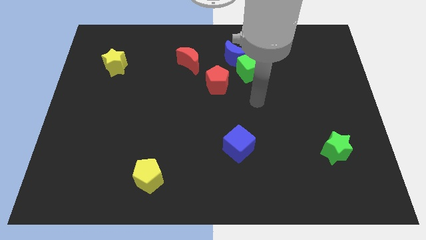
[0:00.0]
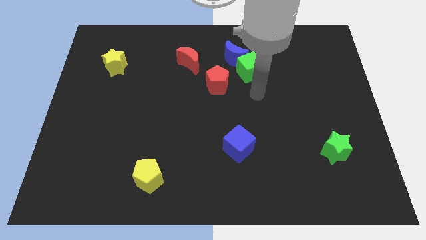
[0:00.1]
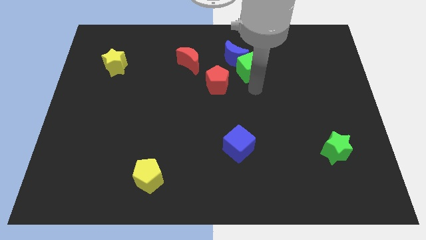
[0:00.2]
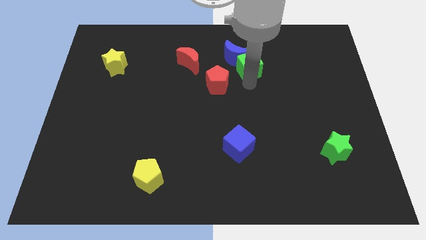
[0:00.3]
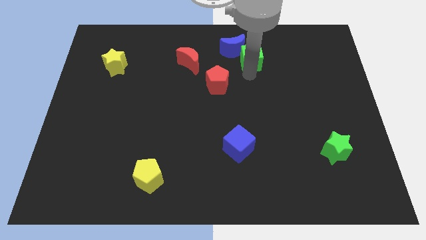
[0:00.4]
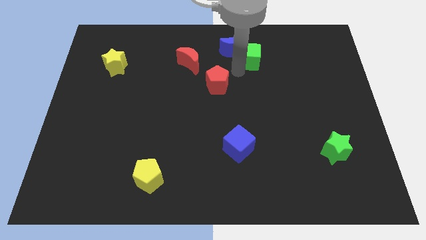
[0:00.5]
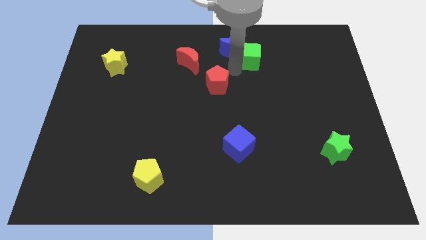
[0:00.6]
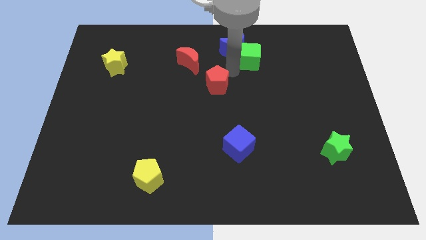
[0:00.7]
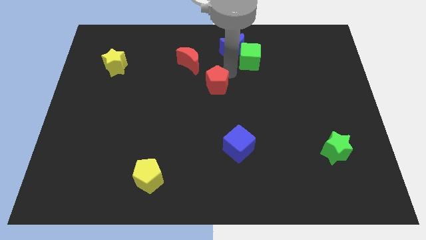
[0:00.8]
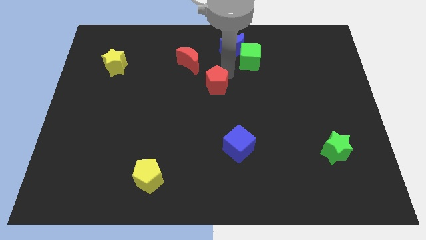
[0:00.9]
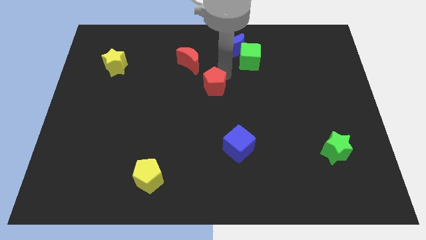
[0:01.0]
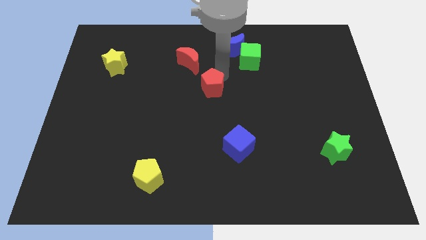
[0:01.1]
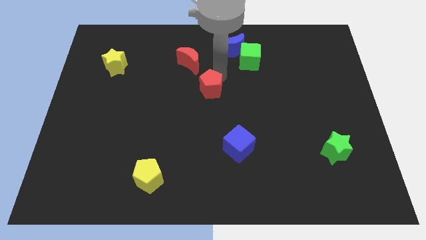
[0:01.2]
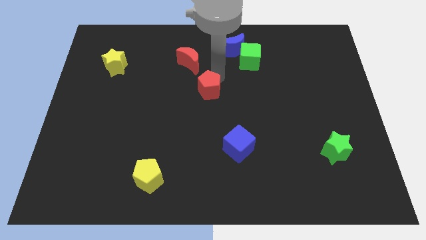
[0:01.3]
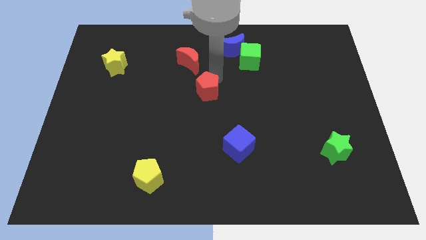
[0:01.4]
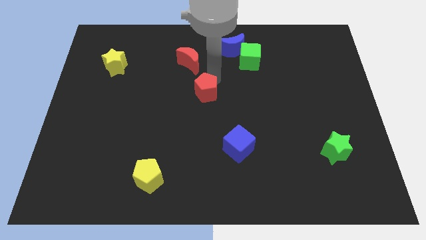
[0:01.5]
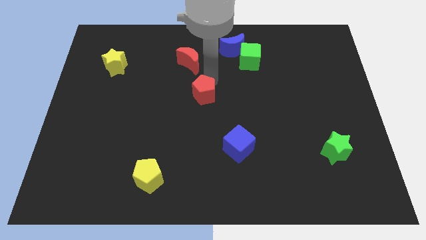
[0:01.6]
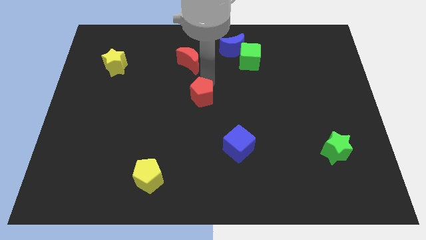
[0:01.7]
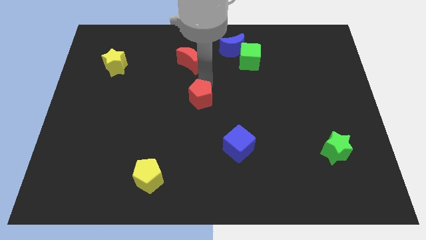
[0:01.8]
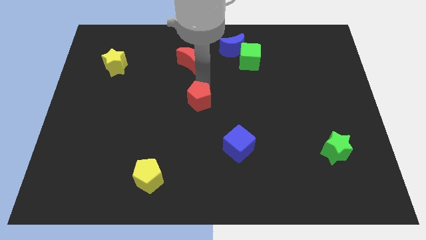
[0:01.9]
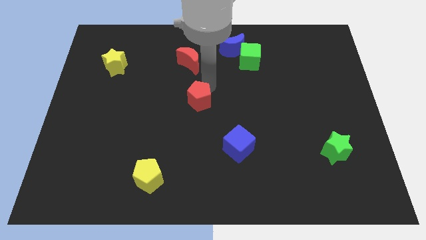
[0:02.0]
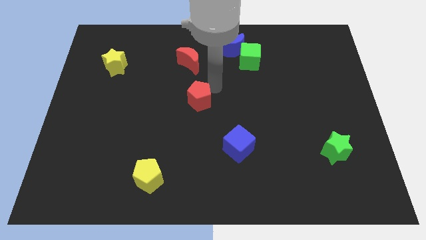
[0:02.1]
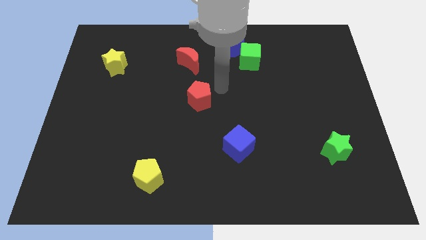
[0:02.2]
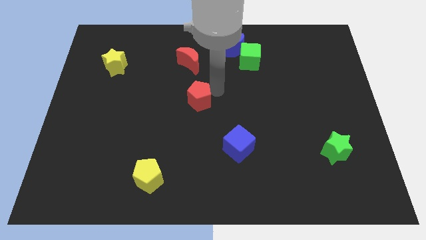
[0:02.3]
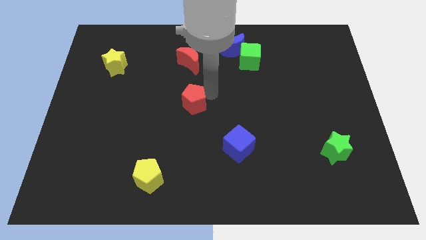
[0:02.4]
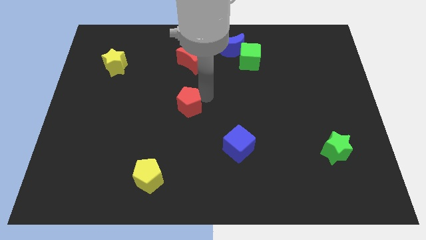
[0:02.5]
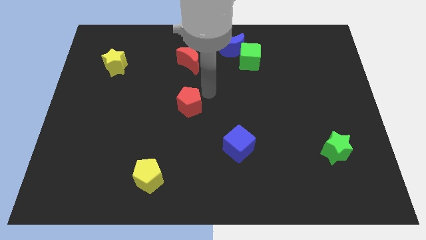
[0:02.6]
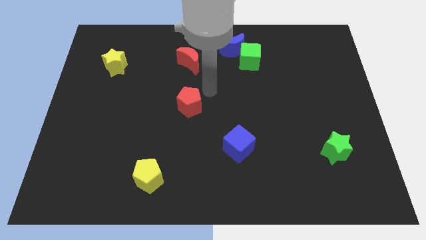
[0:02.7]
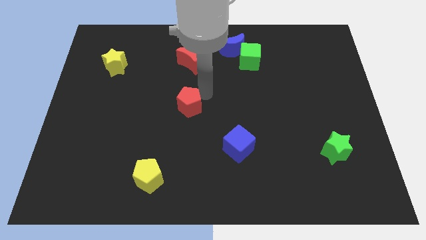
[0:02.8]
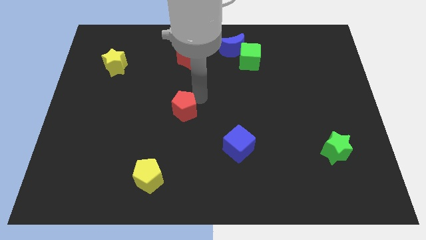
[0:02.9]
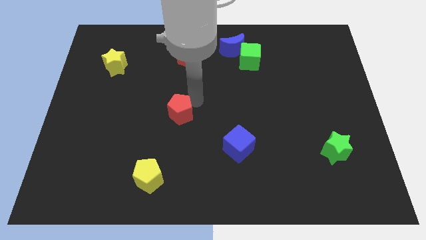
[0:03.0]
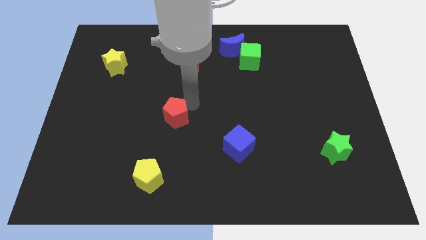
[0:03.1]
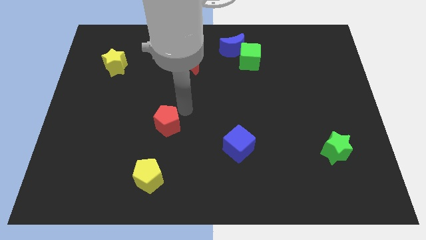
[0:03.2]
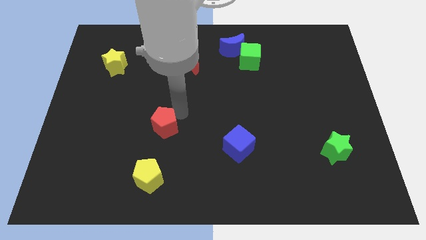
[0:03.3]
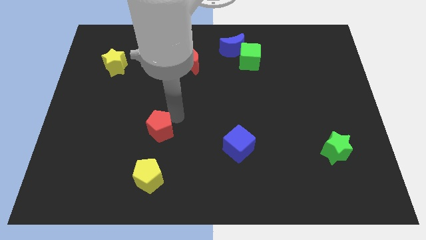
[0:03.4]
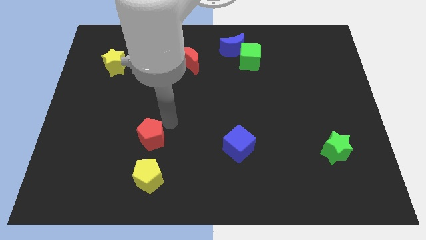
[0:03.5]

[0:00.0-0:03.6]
slide the red pentagon down and left diagonally

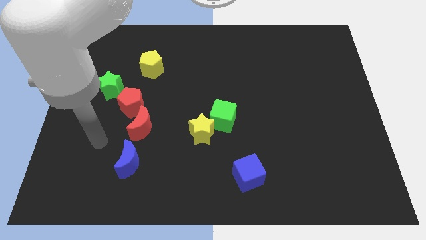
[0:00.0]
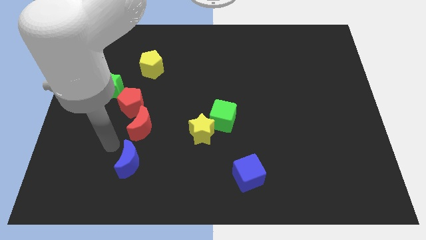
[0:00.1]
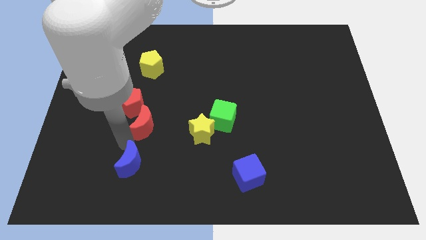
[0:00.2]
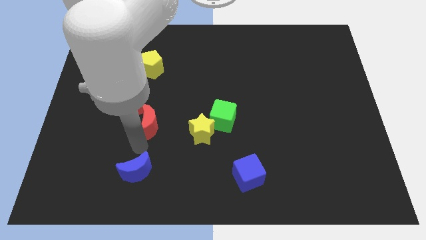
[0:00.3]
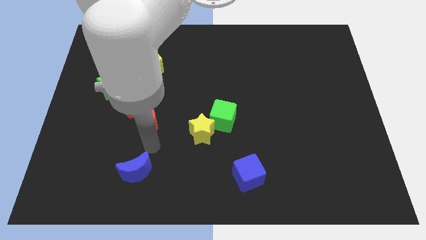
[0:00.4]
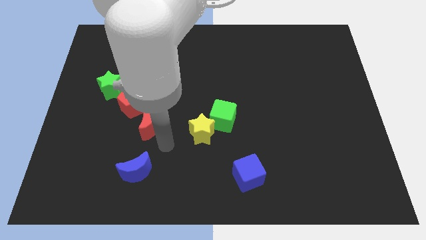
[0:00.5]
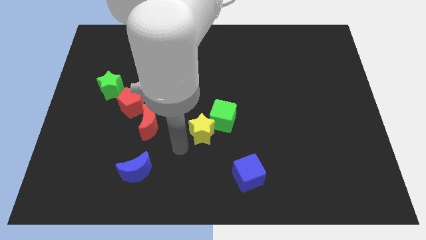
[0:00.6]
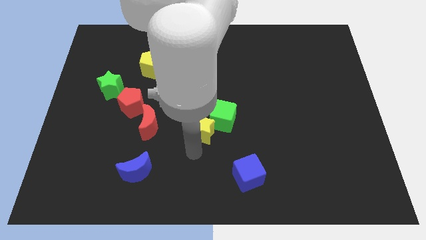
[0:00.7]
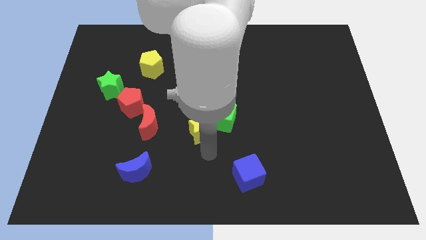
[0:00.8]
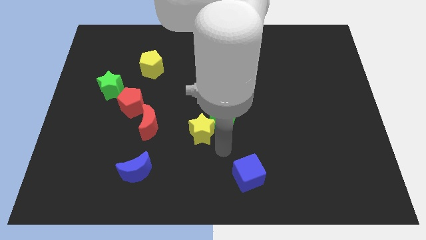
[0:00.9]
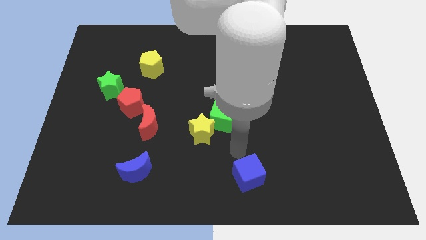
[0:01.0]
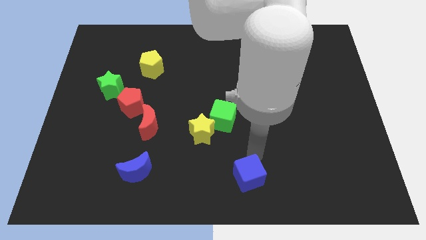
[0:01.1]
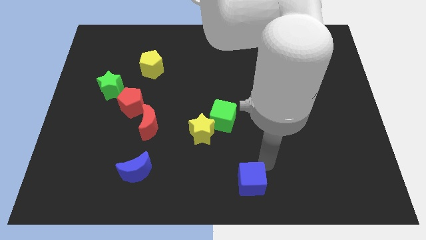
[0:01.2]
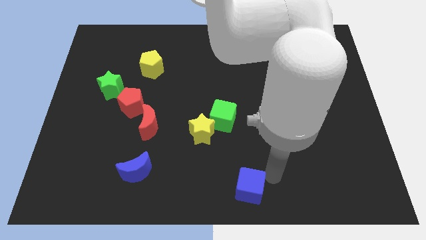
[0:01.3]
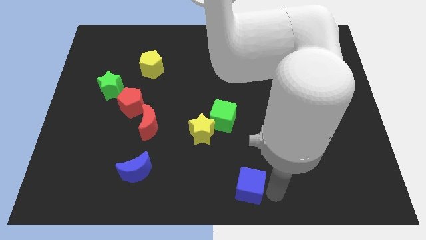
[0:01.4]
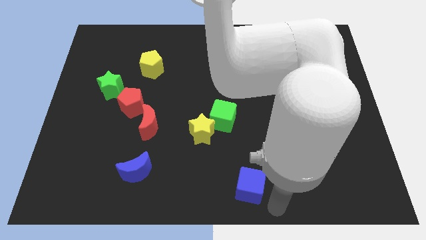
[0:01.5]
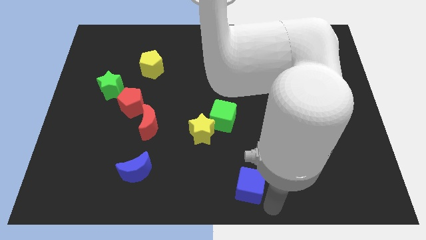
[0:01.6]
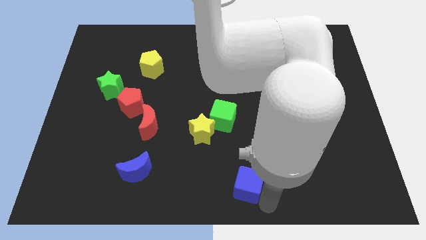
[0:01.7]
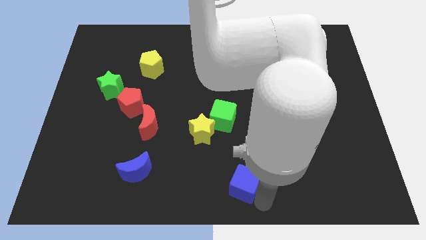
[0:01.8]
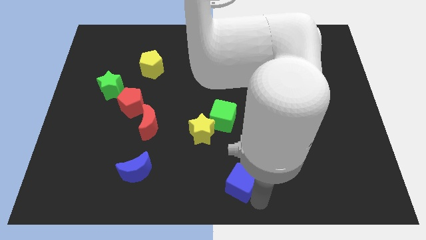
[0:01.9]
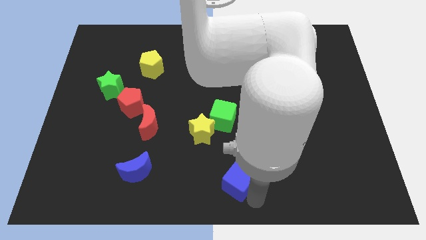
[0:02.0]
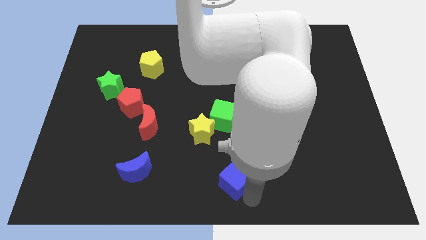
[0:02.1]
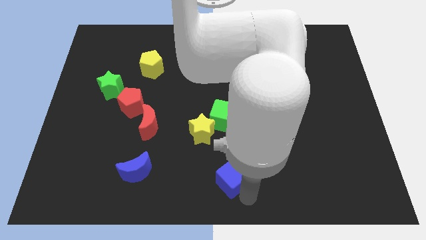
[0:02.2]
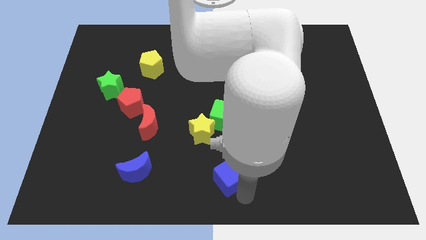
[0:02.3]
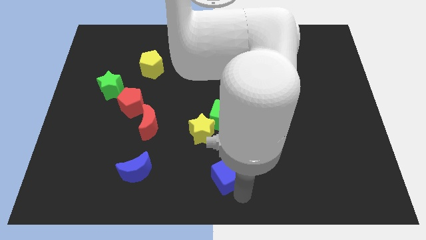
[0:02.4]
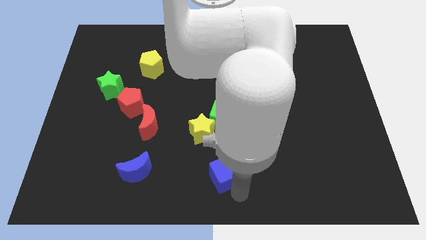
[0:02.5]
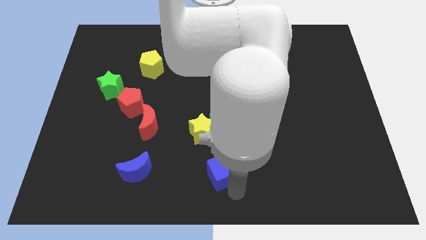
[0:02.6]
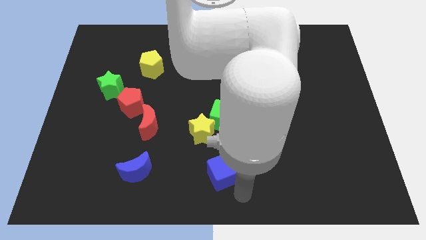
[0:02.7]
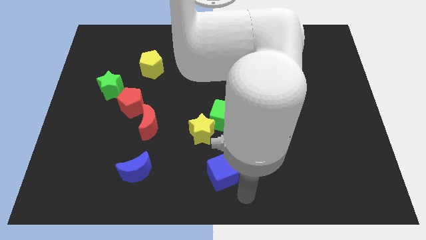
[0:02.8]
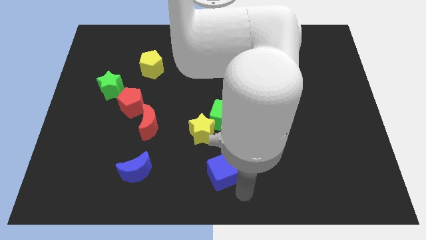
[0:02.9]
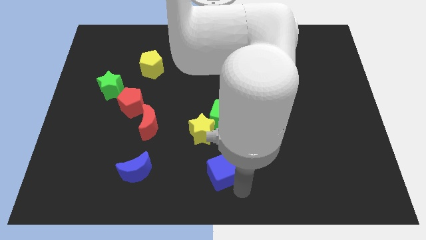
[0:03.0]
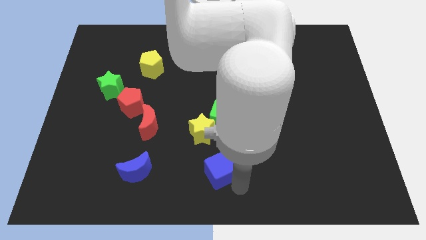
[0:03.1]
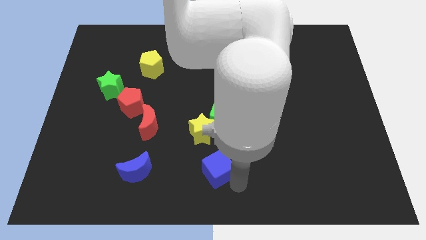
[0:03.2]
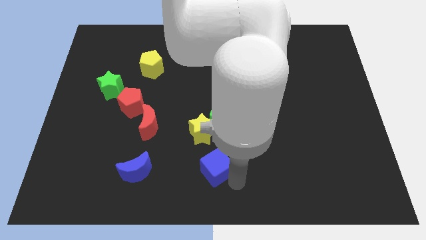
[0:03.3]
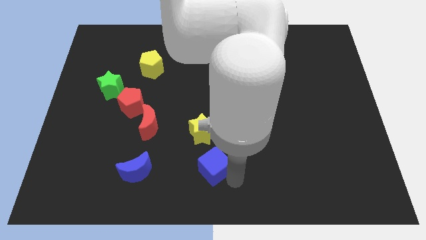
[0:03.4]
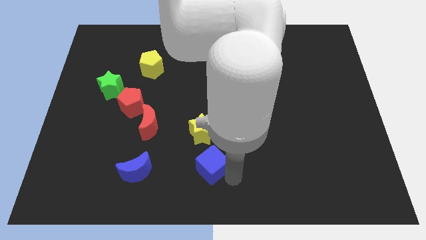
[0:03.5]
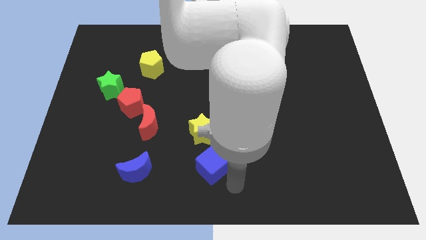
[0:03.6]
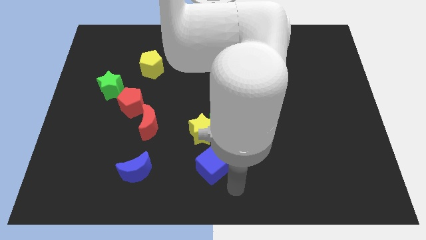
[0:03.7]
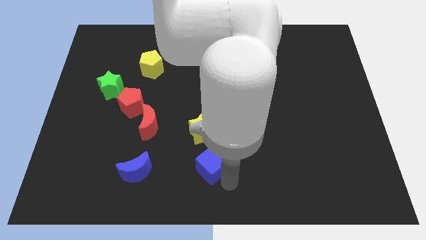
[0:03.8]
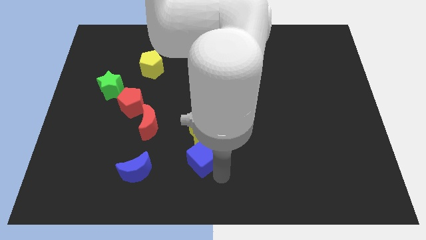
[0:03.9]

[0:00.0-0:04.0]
slightly push the blue cube up and left diagonally

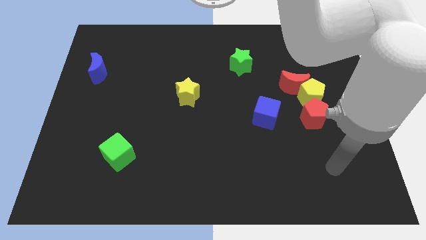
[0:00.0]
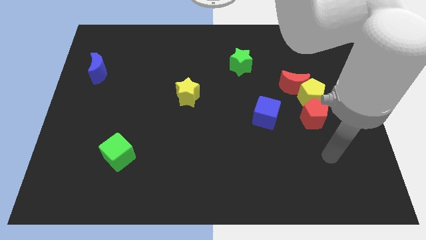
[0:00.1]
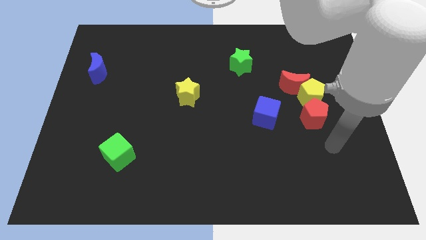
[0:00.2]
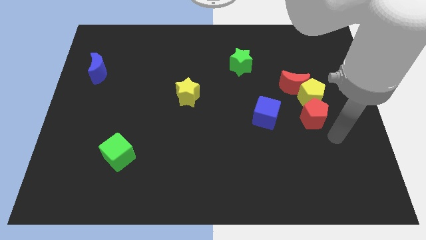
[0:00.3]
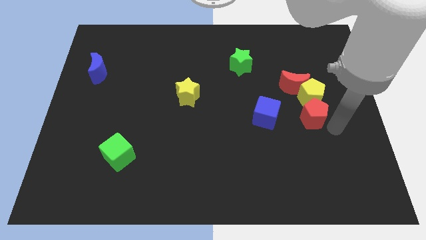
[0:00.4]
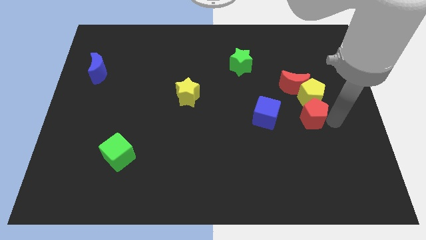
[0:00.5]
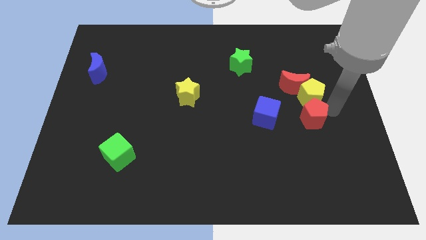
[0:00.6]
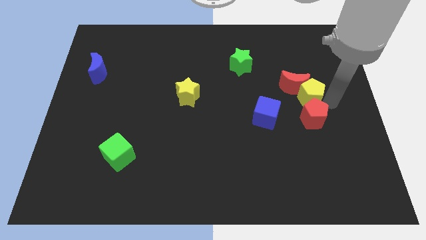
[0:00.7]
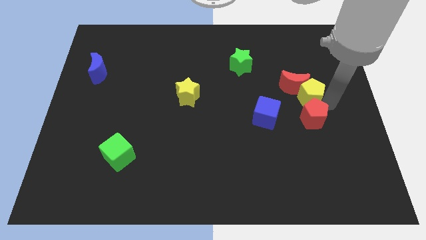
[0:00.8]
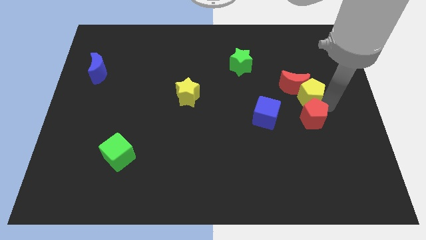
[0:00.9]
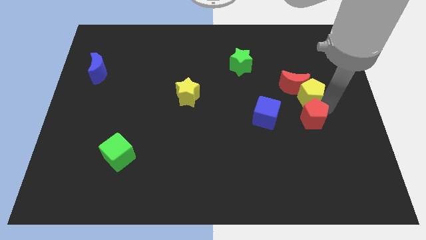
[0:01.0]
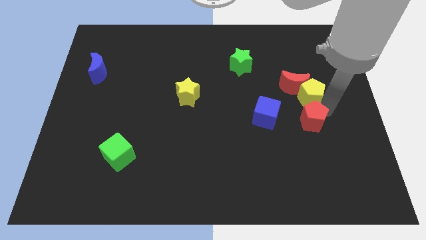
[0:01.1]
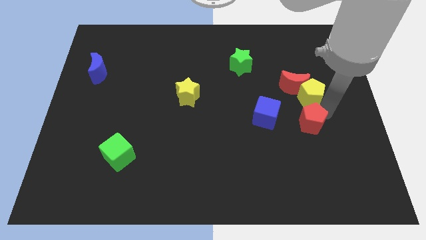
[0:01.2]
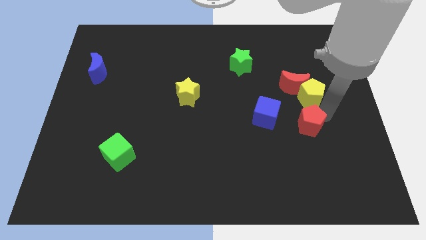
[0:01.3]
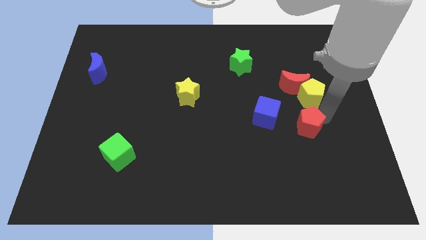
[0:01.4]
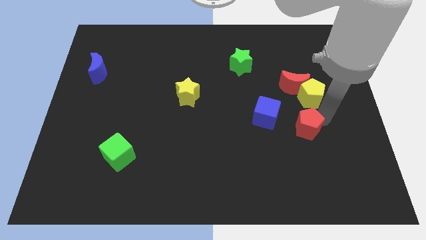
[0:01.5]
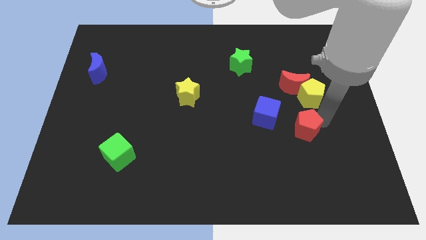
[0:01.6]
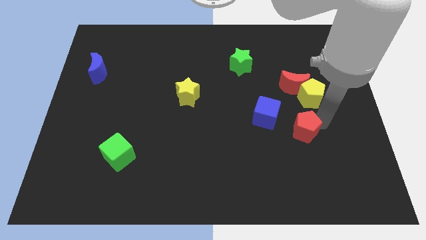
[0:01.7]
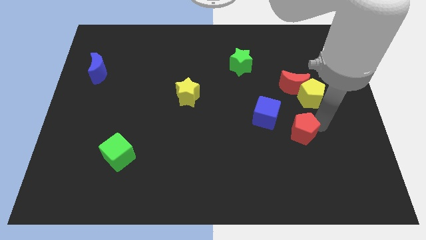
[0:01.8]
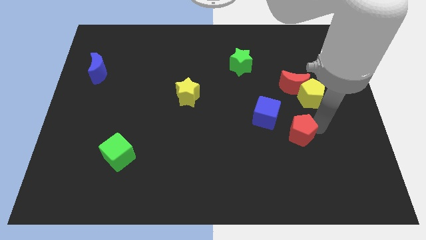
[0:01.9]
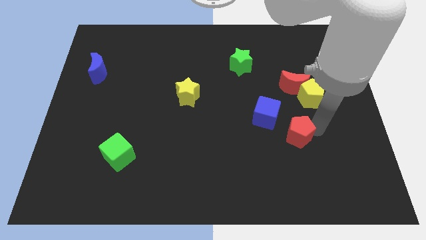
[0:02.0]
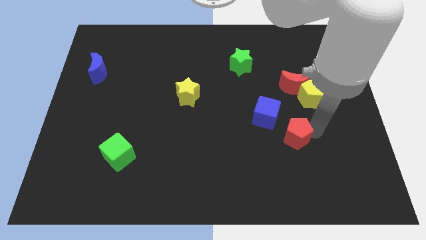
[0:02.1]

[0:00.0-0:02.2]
move the red pentagon down and left diagonally somewhat
